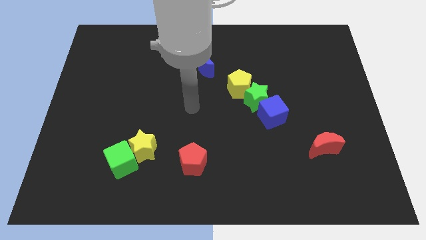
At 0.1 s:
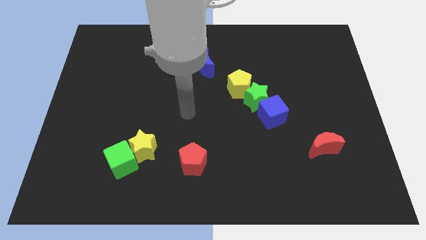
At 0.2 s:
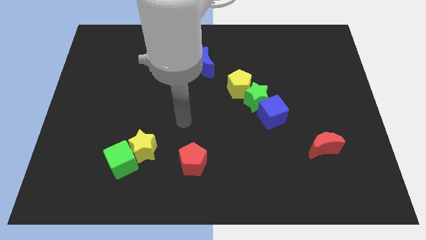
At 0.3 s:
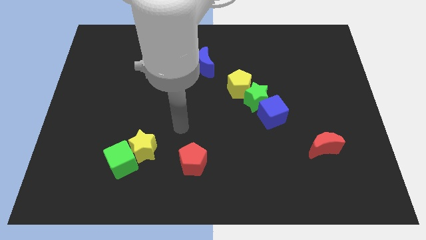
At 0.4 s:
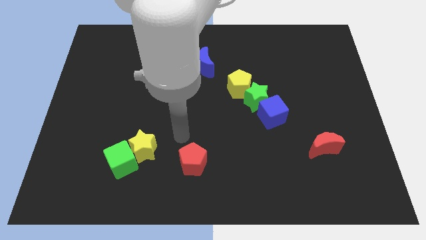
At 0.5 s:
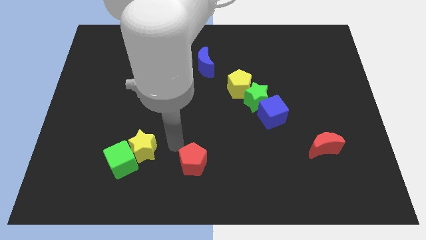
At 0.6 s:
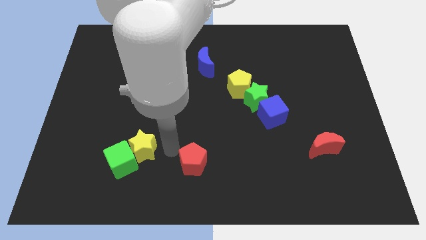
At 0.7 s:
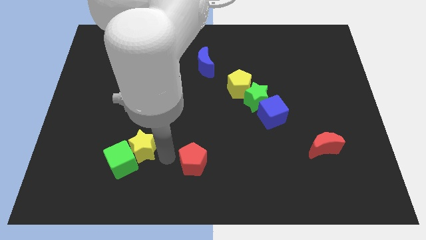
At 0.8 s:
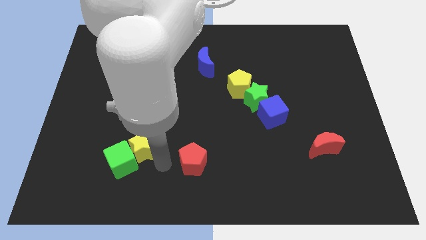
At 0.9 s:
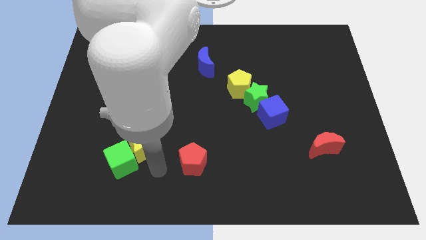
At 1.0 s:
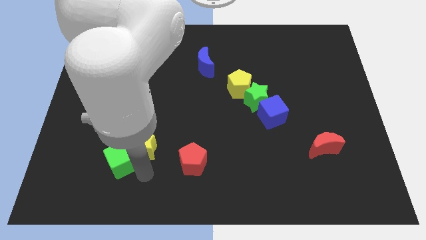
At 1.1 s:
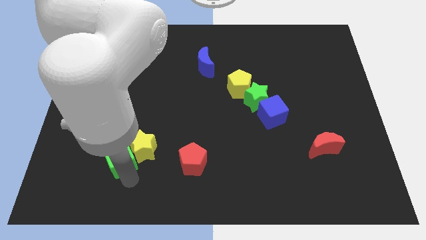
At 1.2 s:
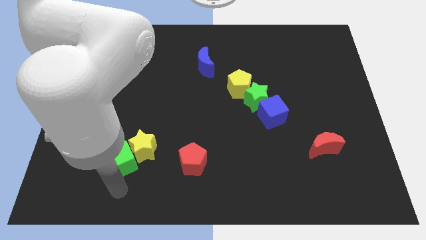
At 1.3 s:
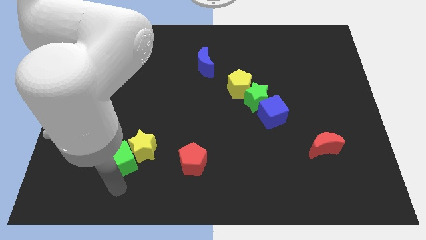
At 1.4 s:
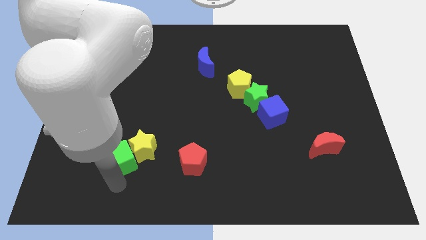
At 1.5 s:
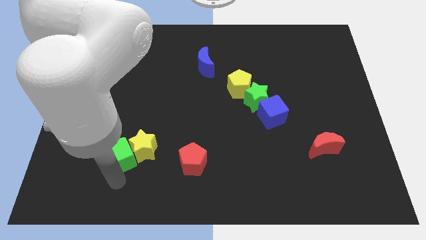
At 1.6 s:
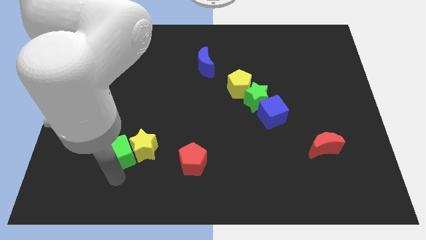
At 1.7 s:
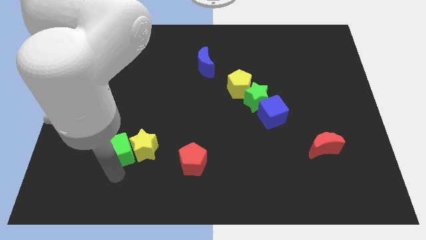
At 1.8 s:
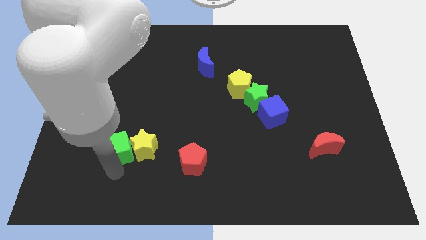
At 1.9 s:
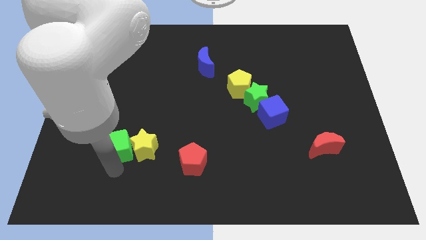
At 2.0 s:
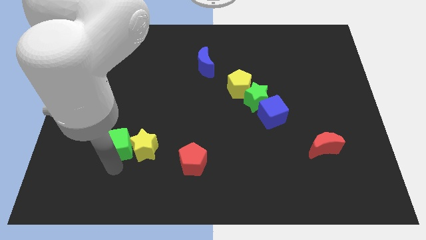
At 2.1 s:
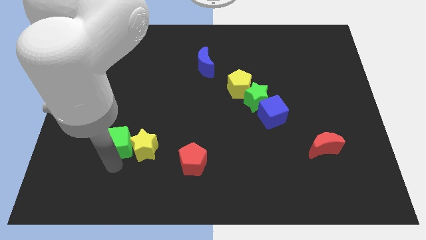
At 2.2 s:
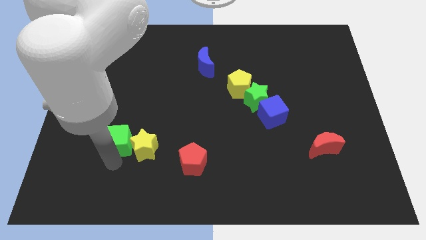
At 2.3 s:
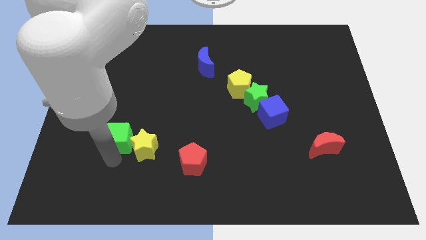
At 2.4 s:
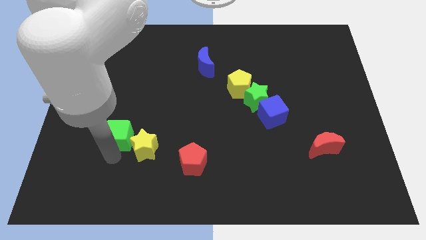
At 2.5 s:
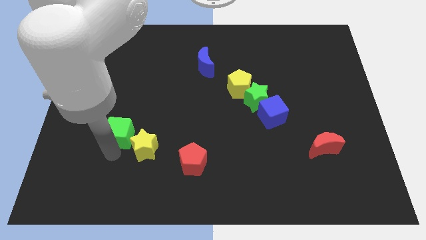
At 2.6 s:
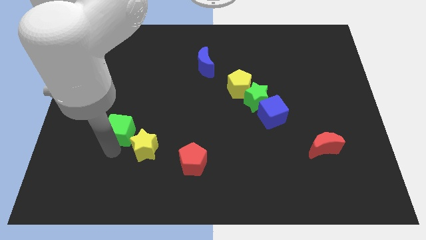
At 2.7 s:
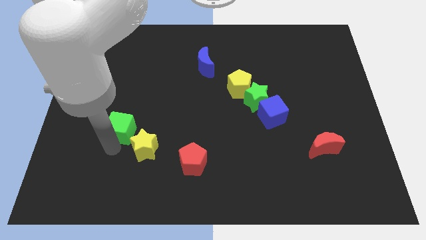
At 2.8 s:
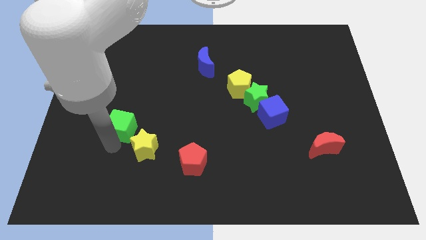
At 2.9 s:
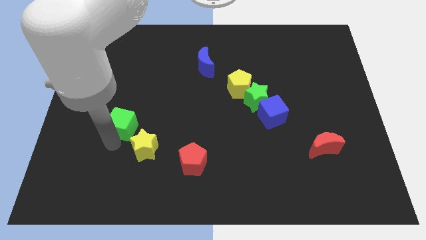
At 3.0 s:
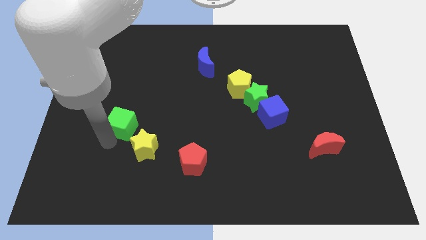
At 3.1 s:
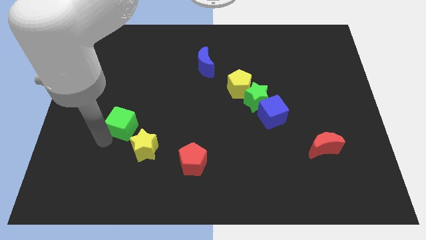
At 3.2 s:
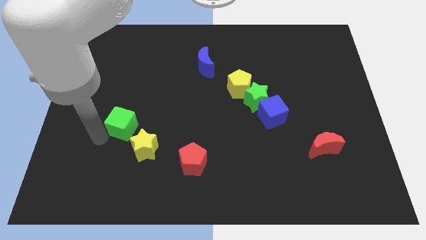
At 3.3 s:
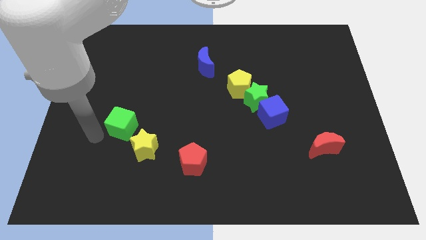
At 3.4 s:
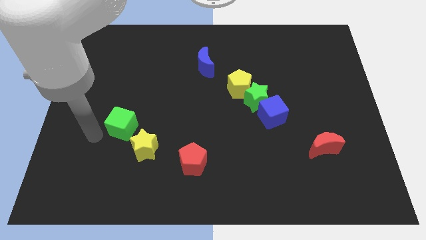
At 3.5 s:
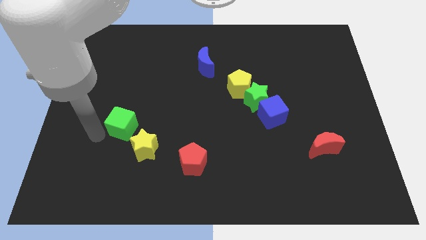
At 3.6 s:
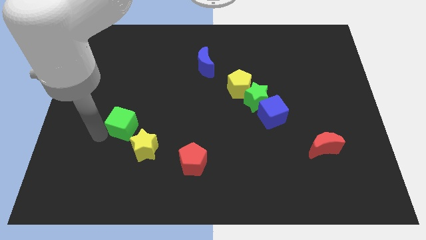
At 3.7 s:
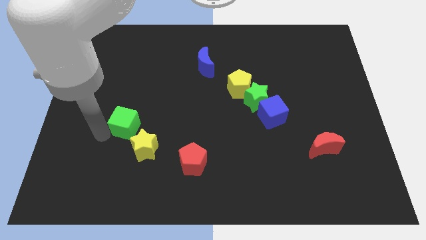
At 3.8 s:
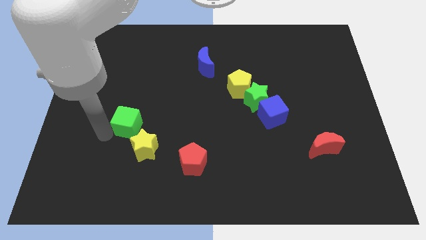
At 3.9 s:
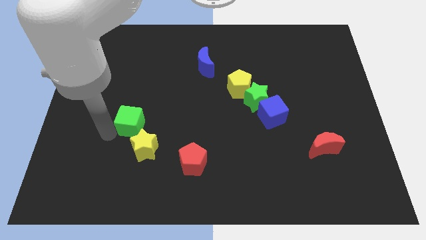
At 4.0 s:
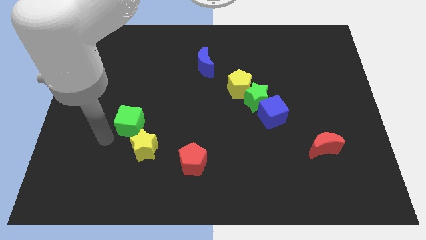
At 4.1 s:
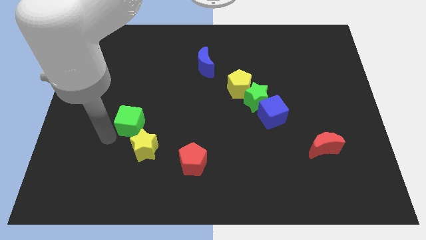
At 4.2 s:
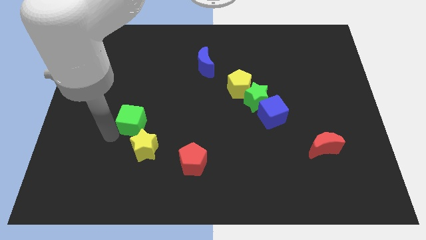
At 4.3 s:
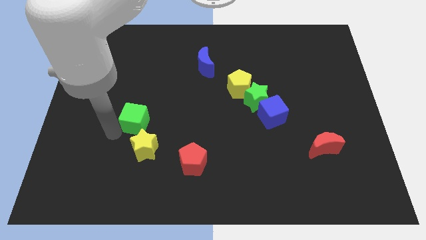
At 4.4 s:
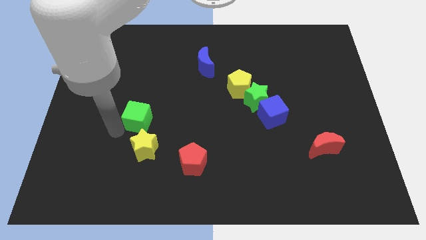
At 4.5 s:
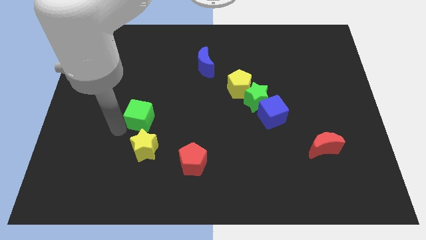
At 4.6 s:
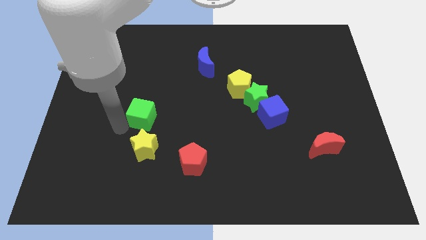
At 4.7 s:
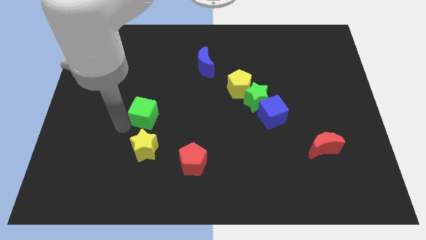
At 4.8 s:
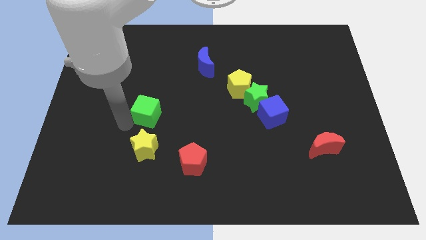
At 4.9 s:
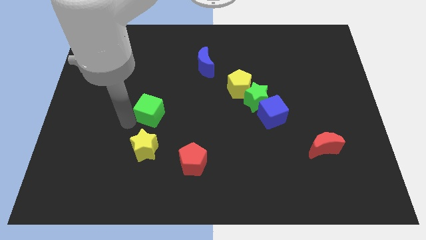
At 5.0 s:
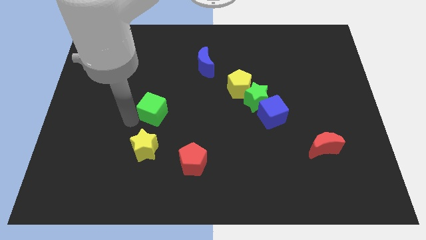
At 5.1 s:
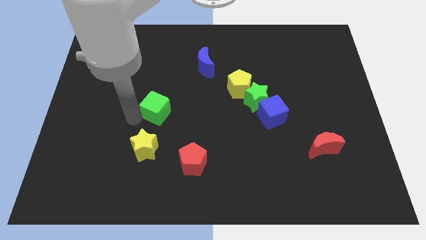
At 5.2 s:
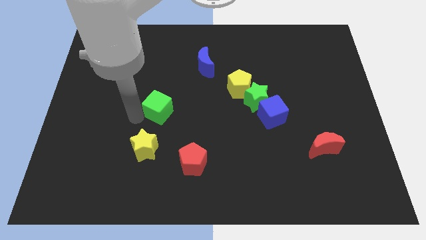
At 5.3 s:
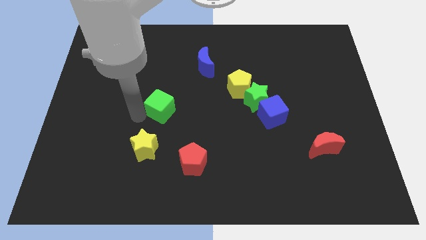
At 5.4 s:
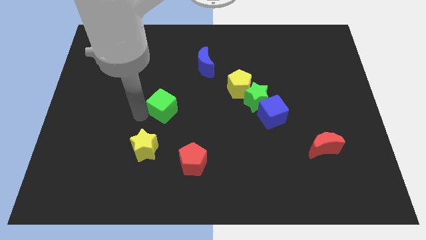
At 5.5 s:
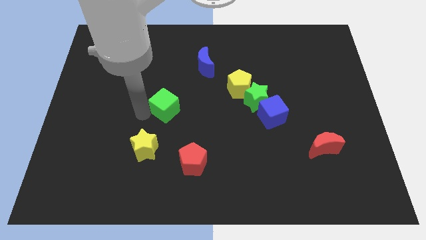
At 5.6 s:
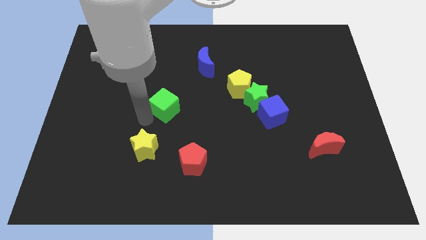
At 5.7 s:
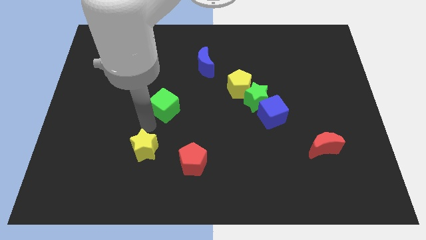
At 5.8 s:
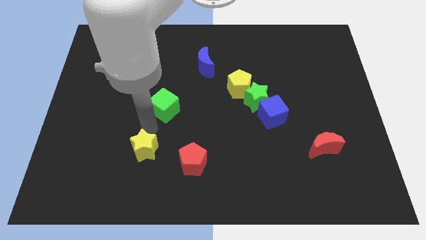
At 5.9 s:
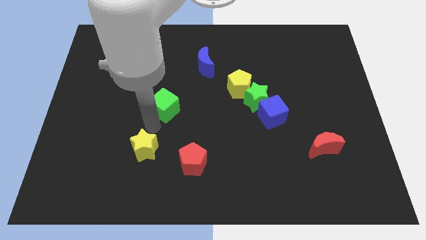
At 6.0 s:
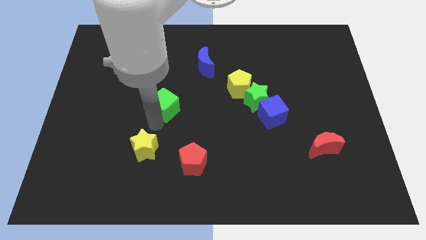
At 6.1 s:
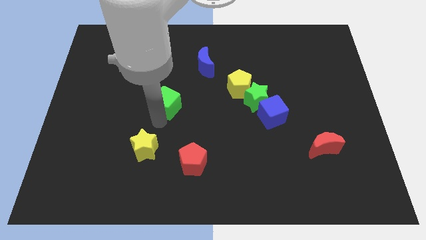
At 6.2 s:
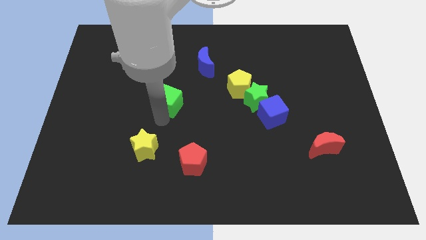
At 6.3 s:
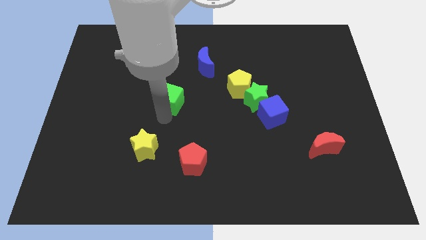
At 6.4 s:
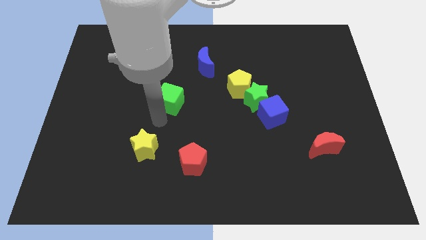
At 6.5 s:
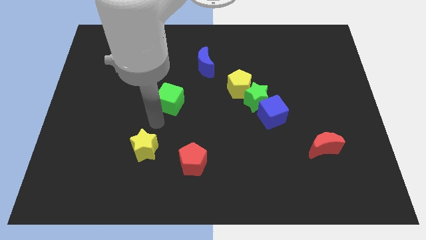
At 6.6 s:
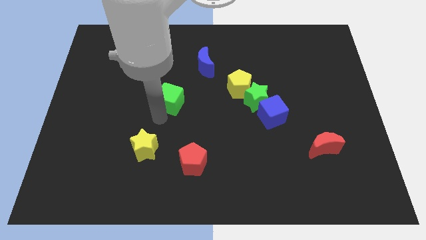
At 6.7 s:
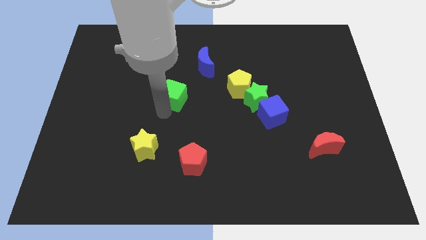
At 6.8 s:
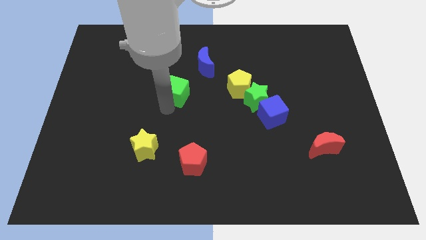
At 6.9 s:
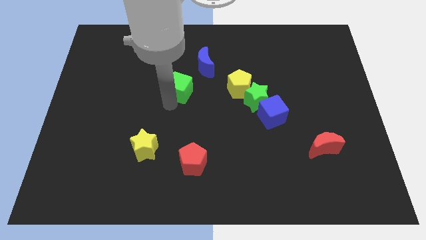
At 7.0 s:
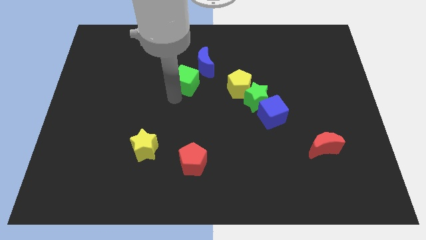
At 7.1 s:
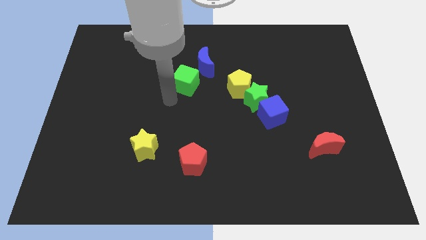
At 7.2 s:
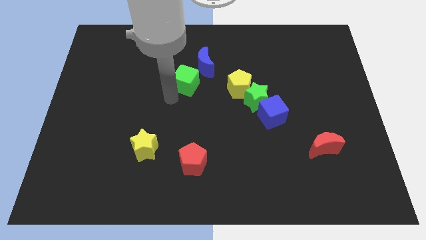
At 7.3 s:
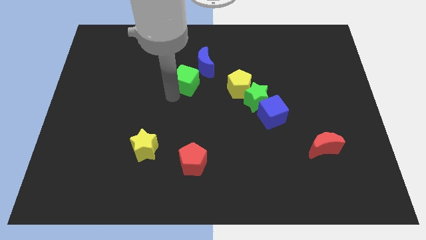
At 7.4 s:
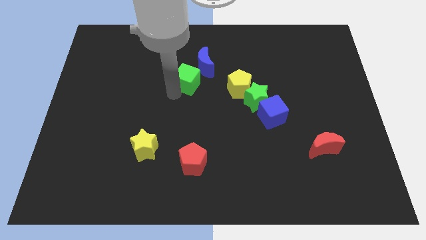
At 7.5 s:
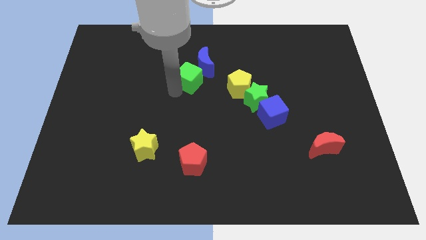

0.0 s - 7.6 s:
put the green cube to the blue moon
